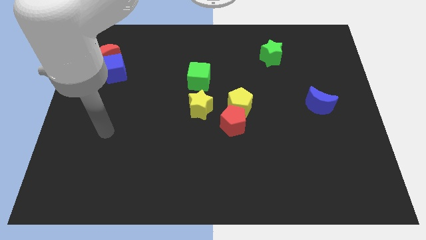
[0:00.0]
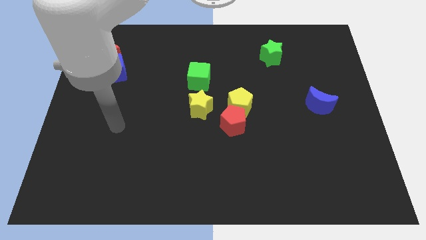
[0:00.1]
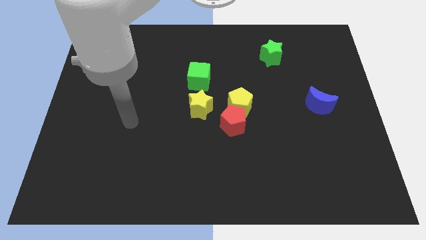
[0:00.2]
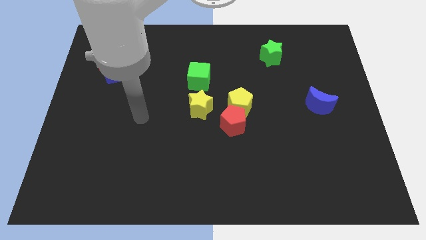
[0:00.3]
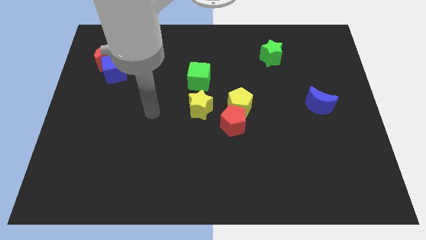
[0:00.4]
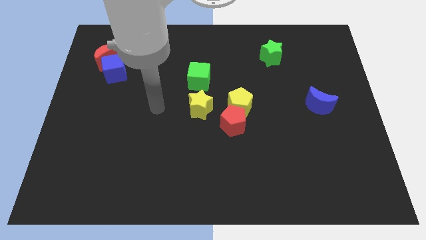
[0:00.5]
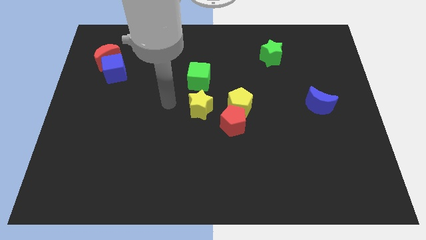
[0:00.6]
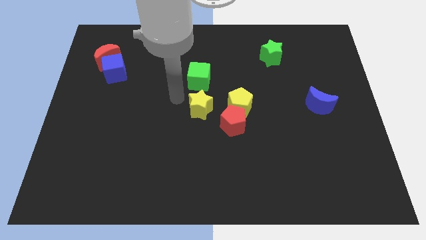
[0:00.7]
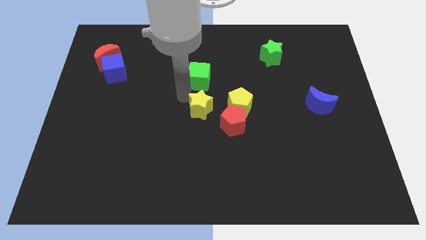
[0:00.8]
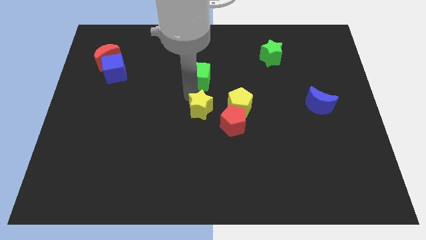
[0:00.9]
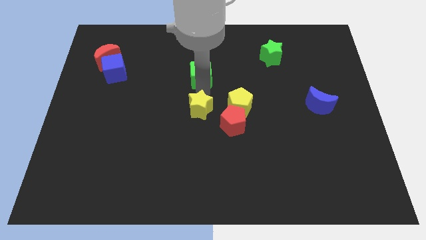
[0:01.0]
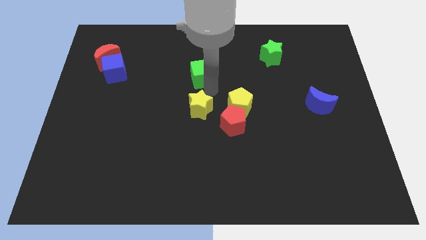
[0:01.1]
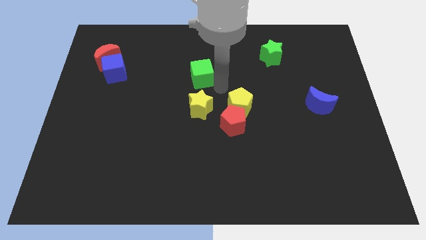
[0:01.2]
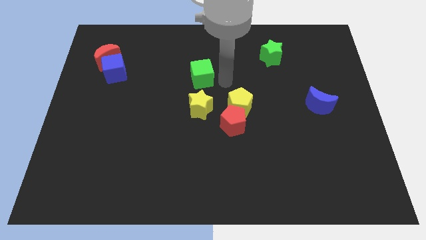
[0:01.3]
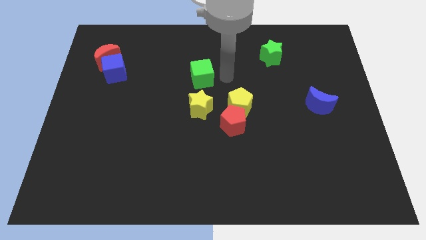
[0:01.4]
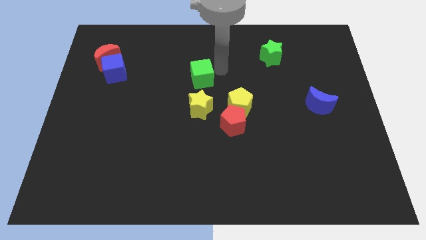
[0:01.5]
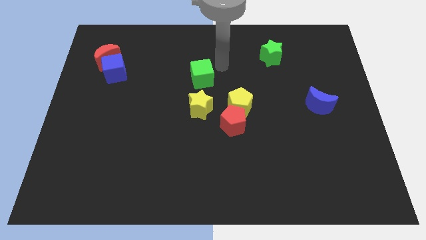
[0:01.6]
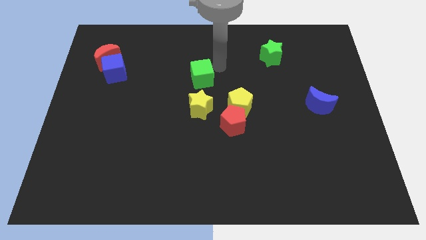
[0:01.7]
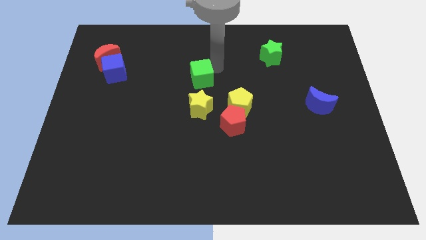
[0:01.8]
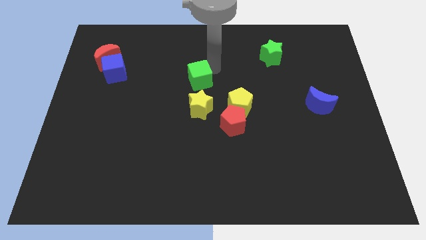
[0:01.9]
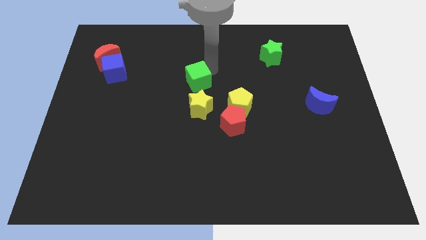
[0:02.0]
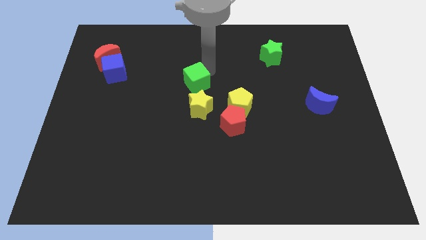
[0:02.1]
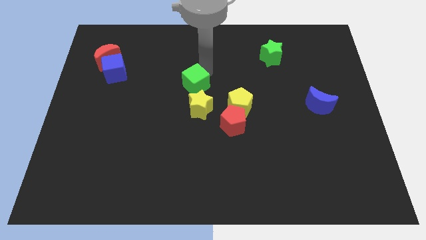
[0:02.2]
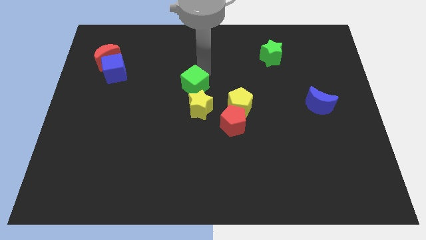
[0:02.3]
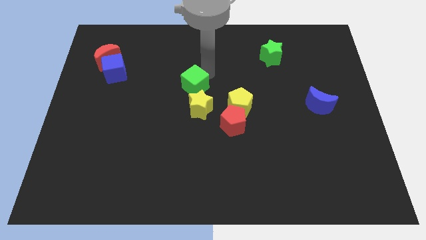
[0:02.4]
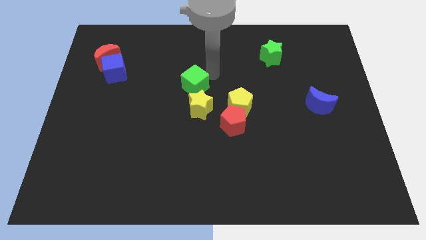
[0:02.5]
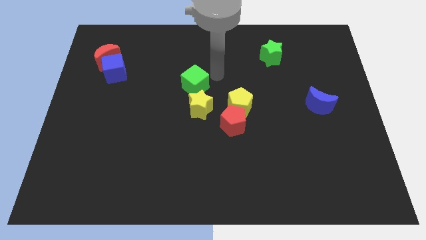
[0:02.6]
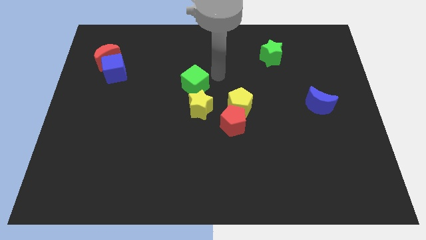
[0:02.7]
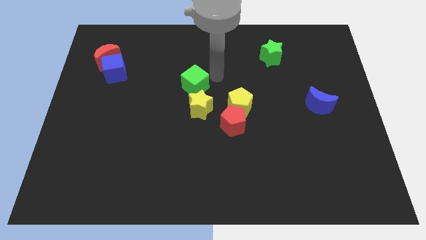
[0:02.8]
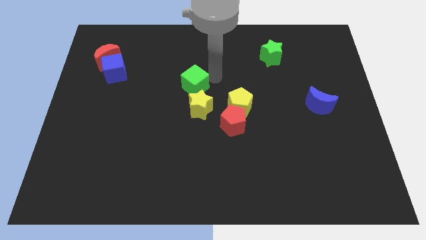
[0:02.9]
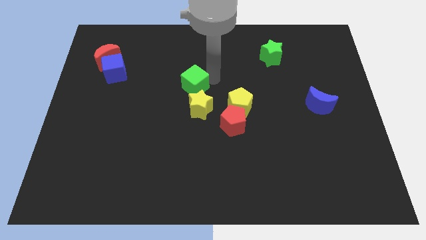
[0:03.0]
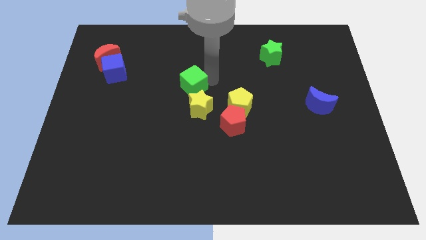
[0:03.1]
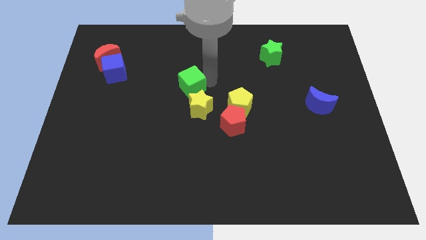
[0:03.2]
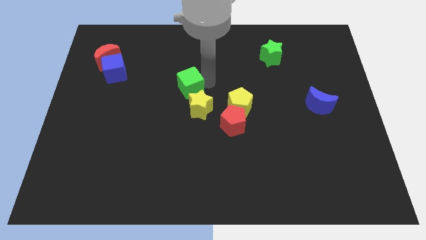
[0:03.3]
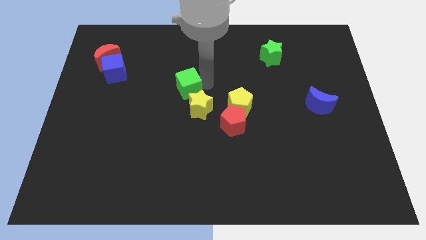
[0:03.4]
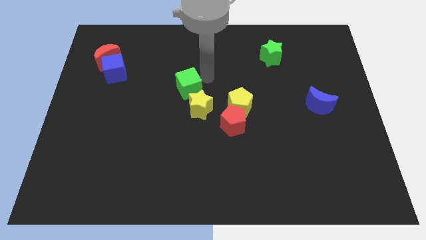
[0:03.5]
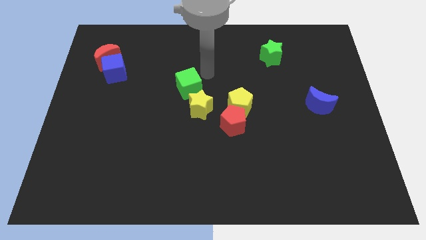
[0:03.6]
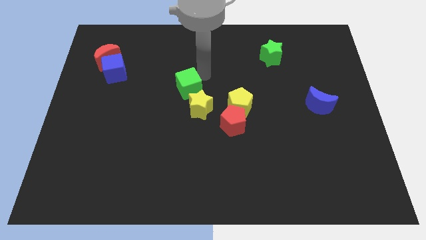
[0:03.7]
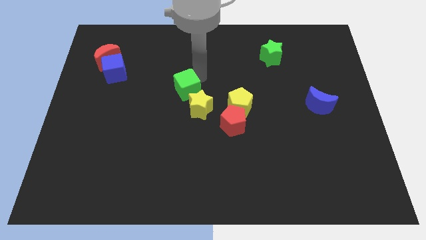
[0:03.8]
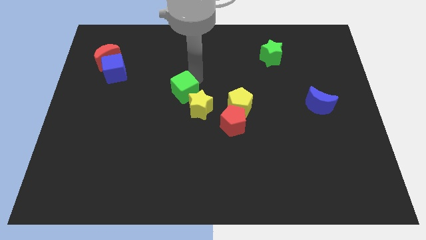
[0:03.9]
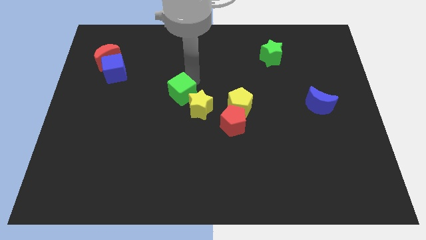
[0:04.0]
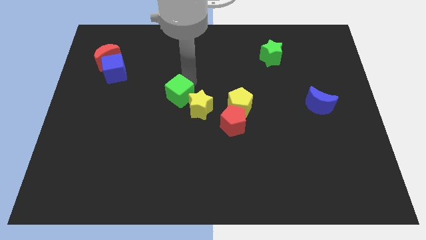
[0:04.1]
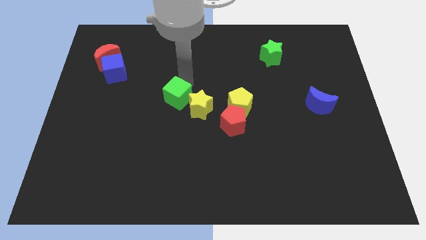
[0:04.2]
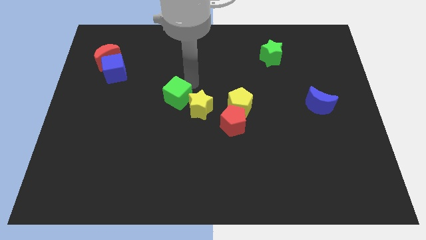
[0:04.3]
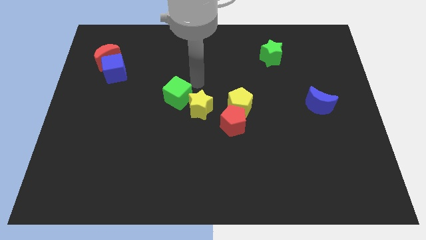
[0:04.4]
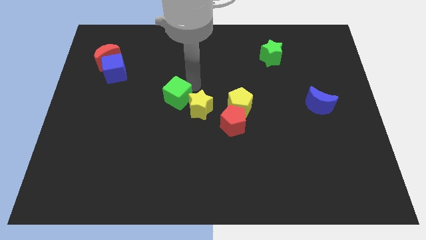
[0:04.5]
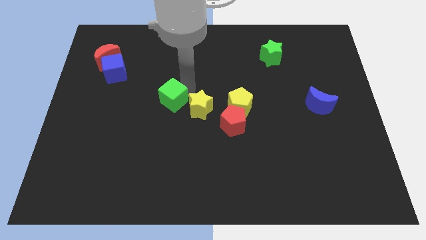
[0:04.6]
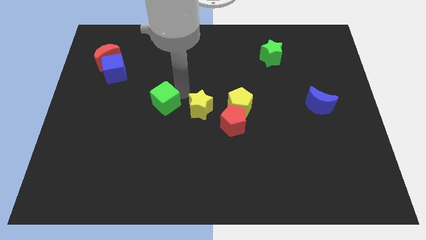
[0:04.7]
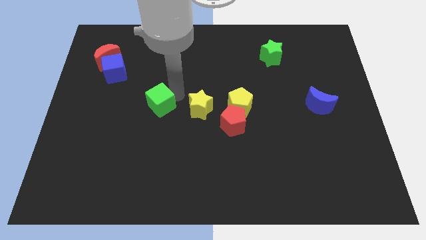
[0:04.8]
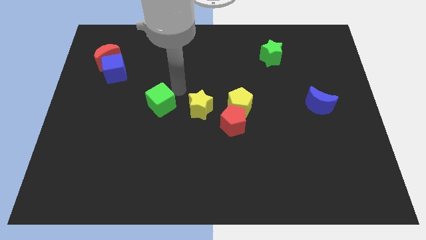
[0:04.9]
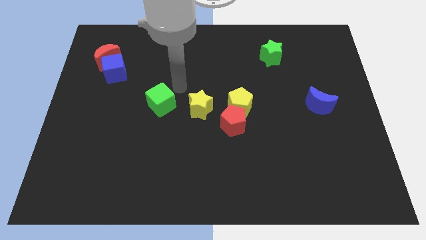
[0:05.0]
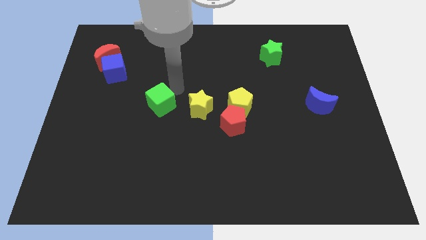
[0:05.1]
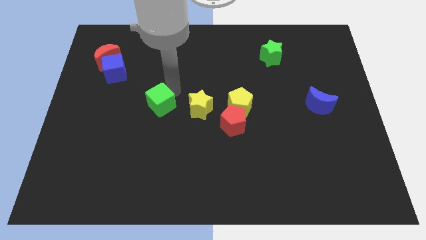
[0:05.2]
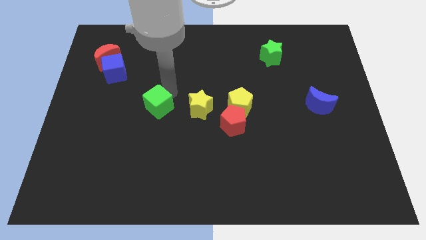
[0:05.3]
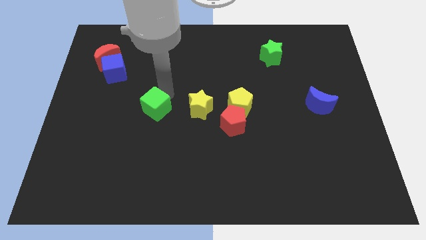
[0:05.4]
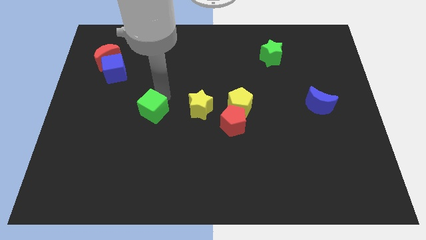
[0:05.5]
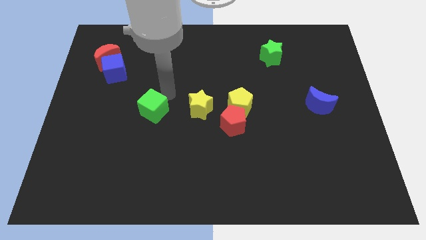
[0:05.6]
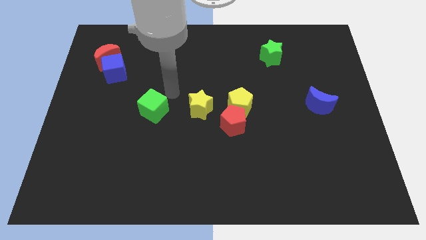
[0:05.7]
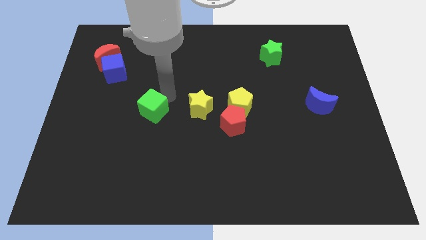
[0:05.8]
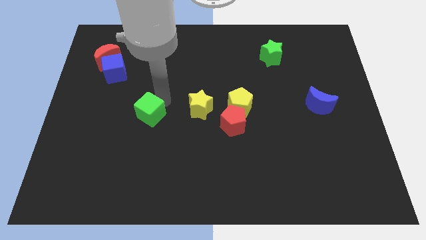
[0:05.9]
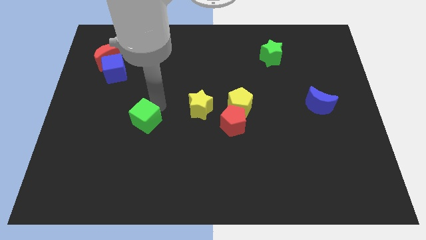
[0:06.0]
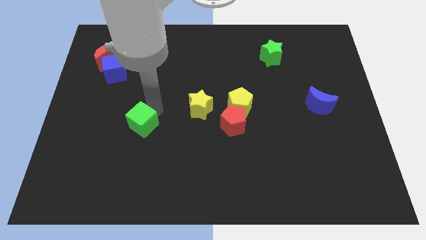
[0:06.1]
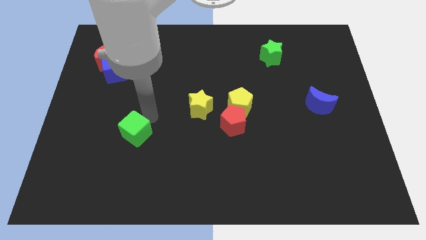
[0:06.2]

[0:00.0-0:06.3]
move the green cube downwards and left

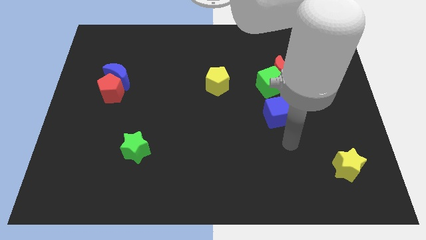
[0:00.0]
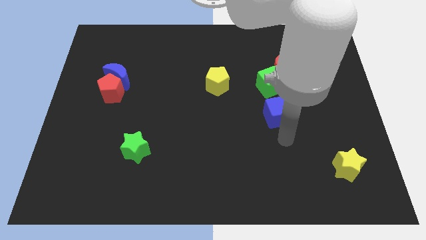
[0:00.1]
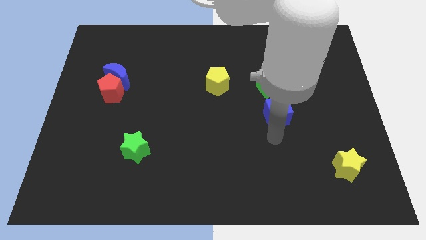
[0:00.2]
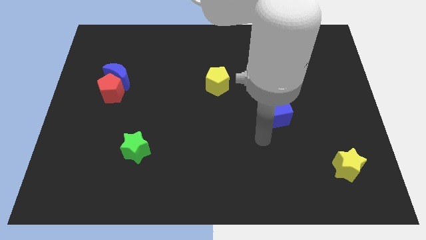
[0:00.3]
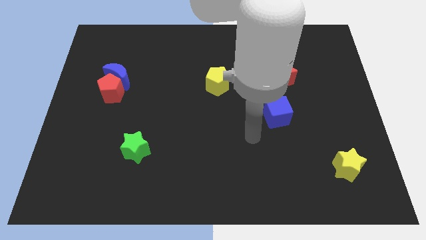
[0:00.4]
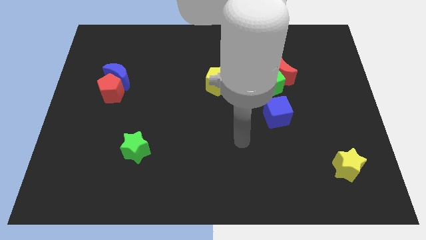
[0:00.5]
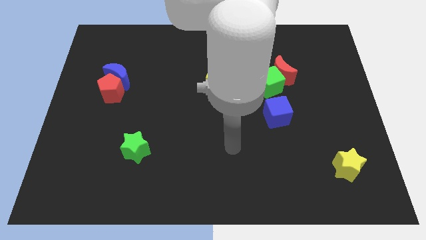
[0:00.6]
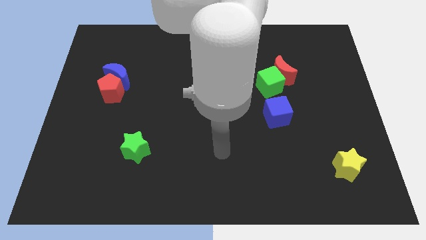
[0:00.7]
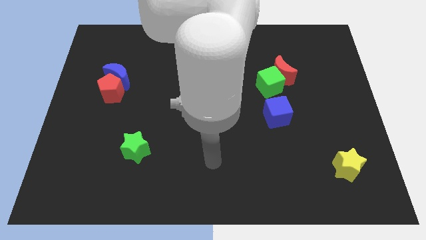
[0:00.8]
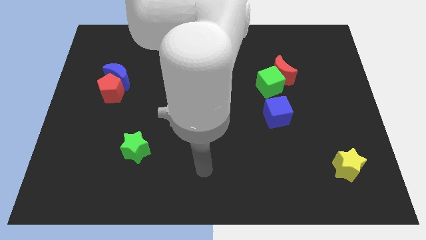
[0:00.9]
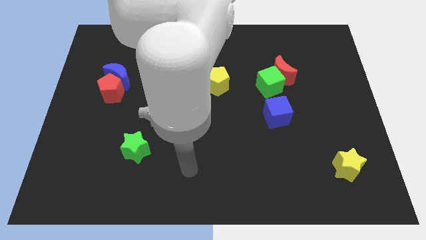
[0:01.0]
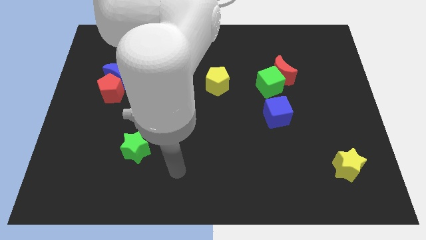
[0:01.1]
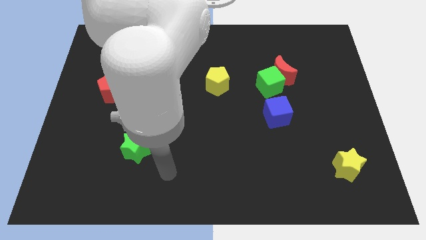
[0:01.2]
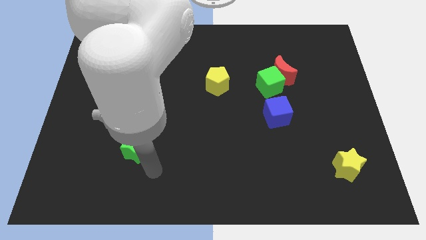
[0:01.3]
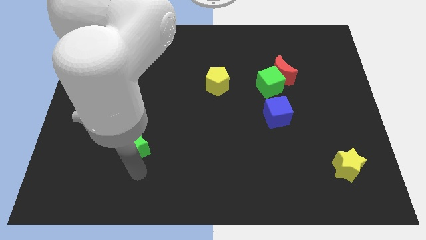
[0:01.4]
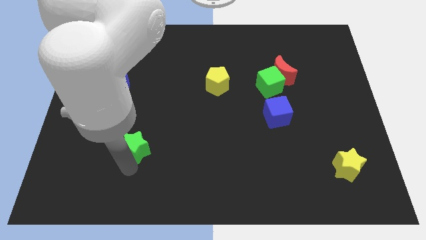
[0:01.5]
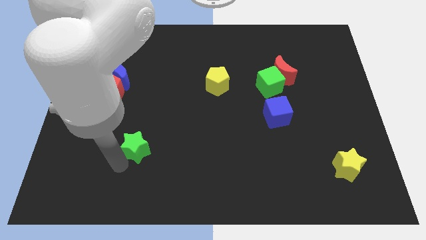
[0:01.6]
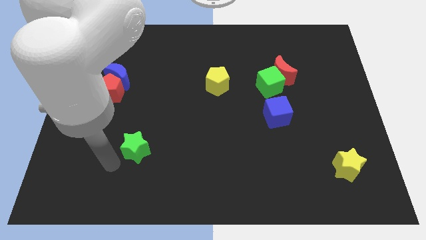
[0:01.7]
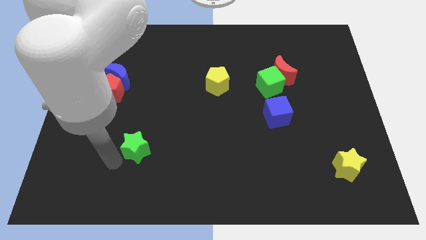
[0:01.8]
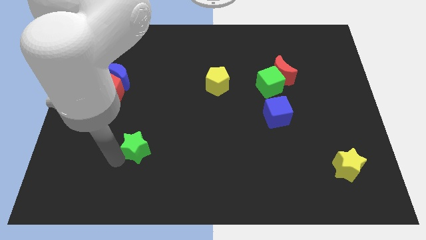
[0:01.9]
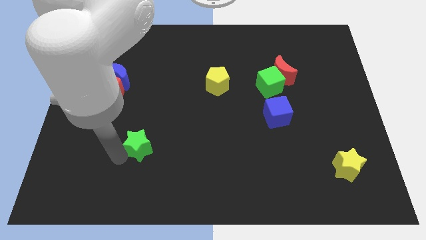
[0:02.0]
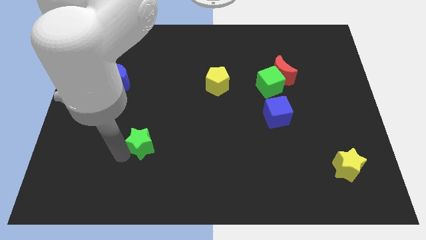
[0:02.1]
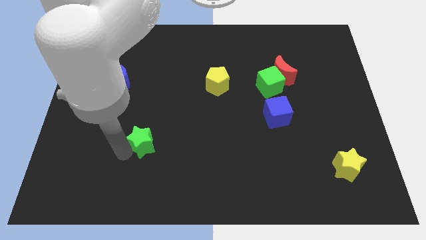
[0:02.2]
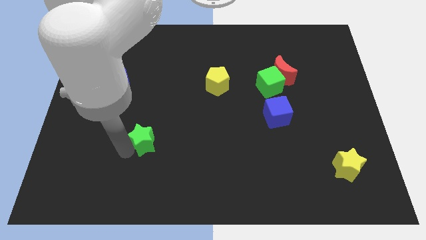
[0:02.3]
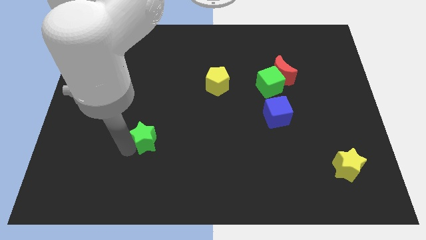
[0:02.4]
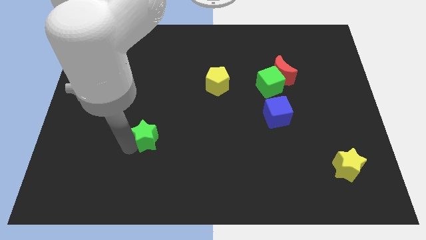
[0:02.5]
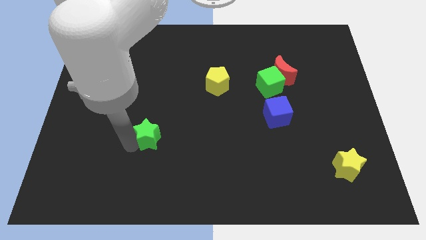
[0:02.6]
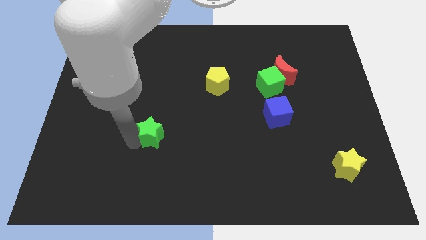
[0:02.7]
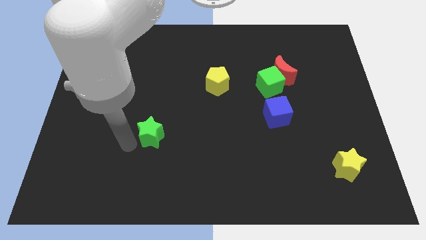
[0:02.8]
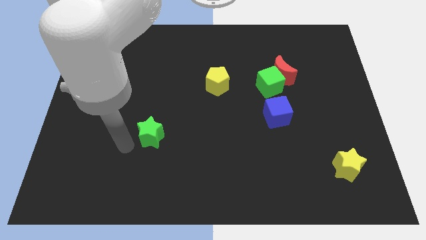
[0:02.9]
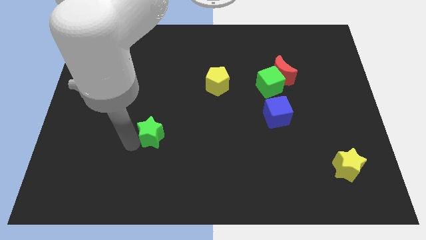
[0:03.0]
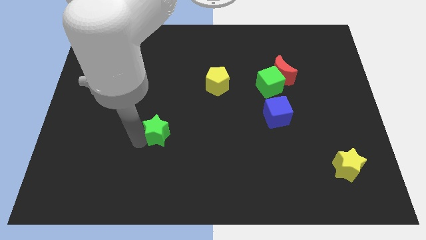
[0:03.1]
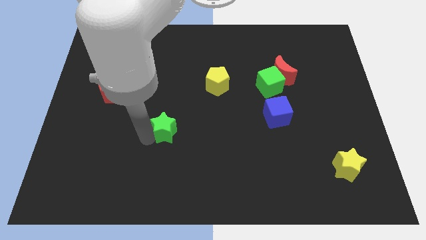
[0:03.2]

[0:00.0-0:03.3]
push the green star somewhat upwards and then to the right
